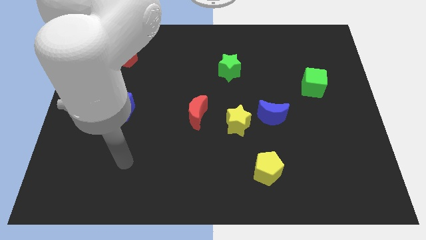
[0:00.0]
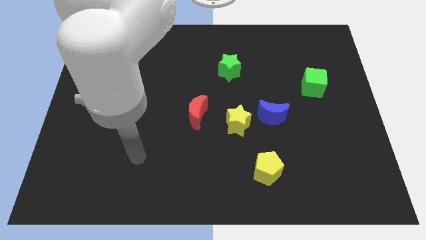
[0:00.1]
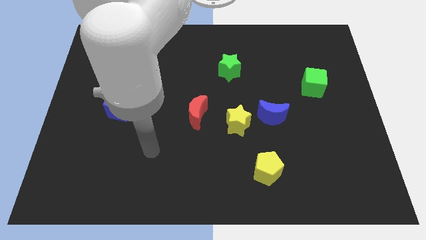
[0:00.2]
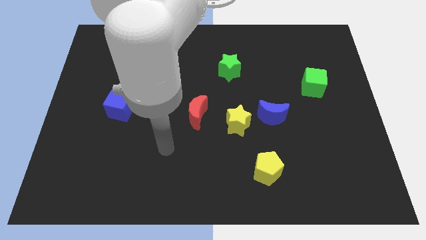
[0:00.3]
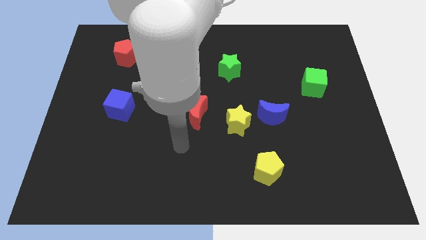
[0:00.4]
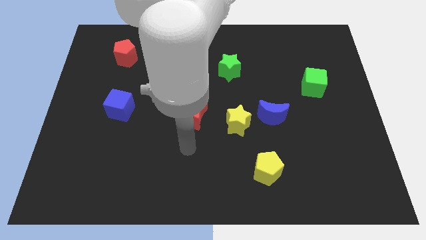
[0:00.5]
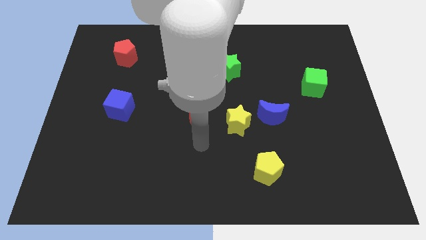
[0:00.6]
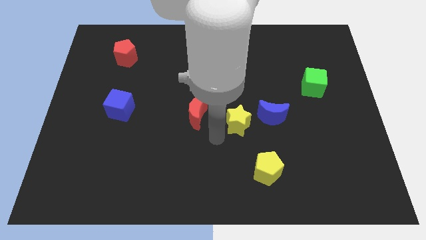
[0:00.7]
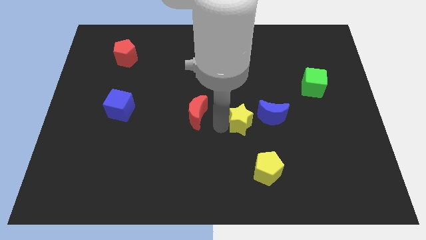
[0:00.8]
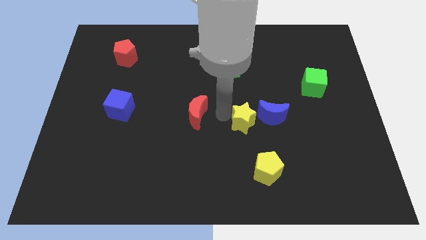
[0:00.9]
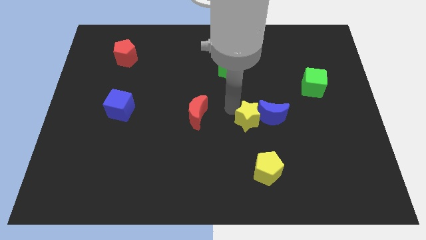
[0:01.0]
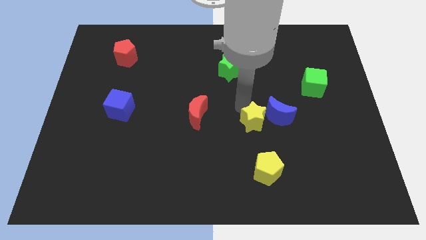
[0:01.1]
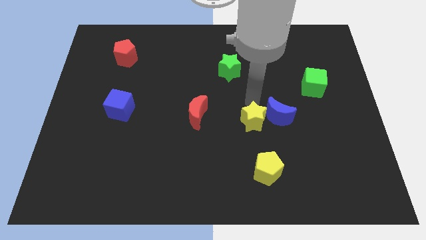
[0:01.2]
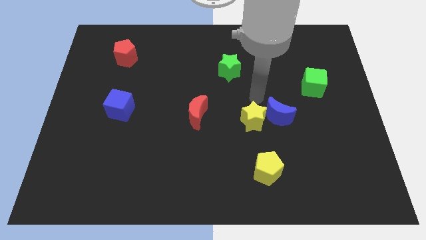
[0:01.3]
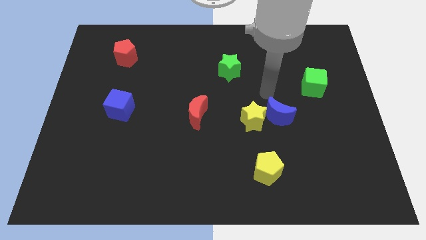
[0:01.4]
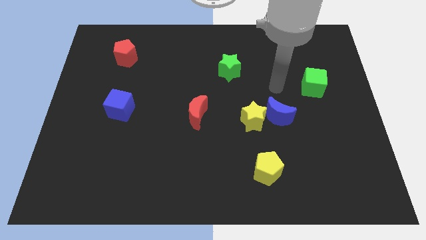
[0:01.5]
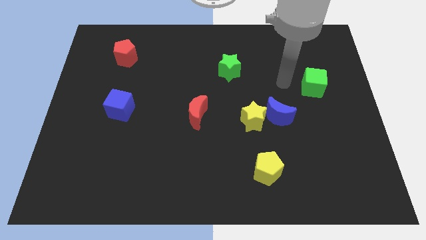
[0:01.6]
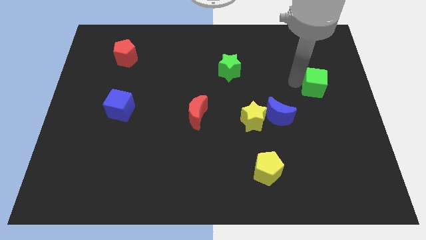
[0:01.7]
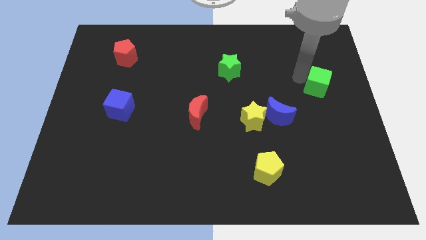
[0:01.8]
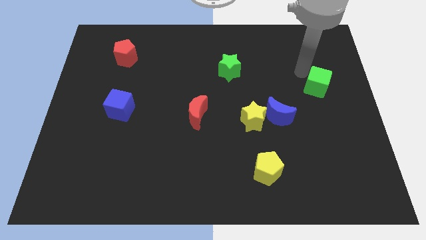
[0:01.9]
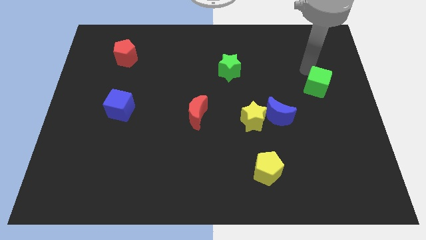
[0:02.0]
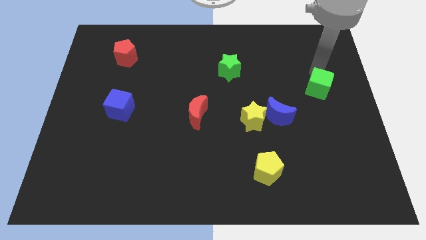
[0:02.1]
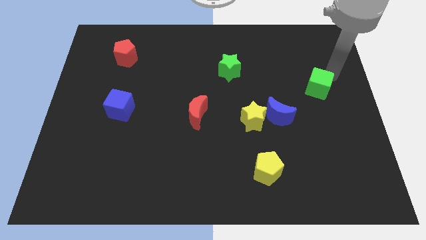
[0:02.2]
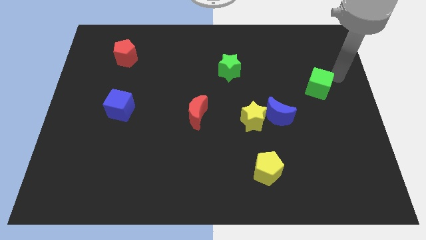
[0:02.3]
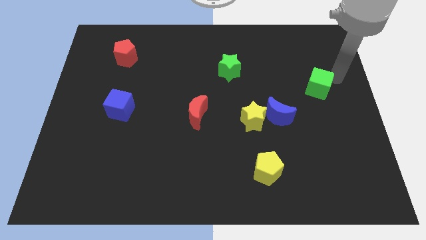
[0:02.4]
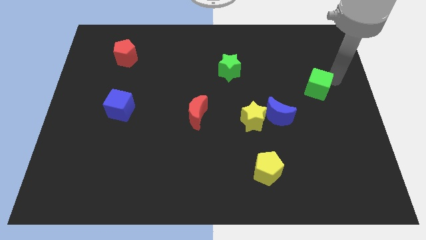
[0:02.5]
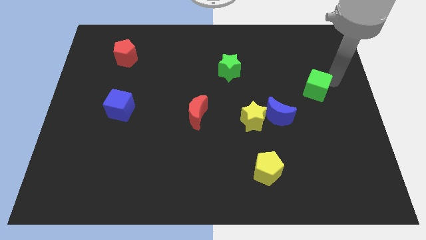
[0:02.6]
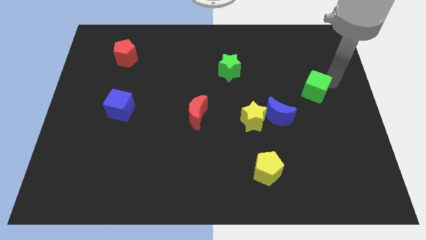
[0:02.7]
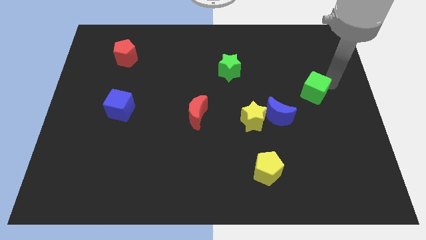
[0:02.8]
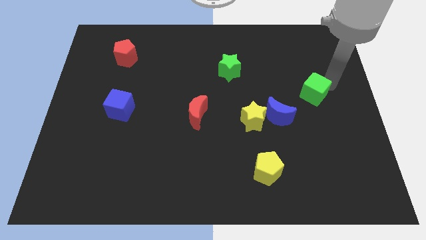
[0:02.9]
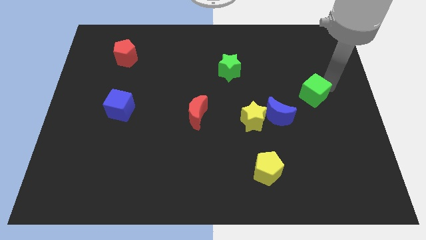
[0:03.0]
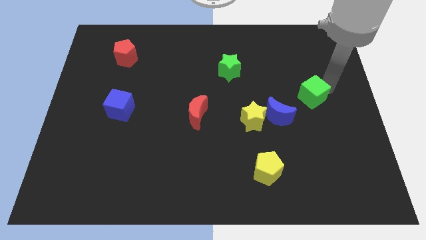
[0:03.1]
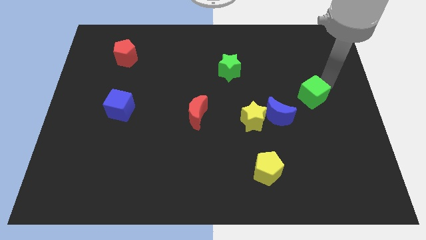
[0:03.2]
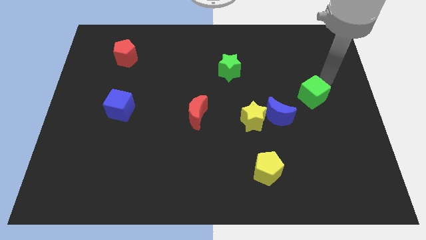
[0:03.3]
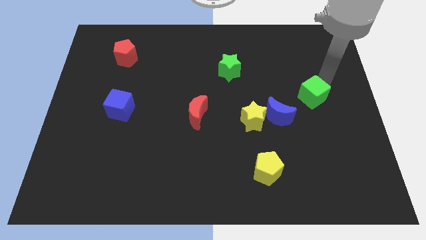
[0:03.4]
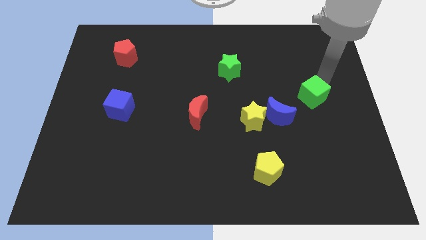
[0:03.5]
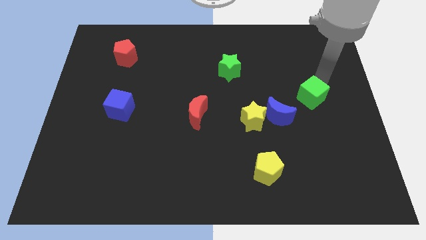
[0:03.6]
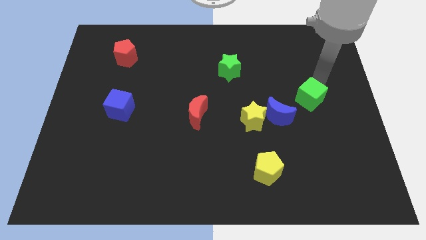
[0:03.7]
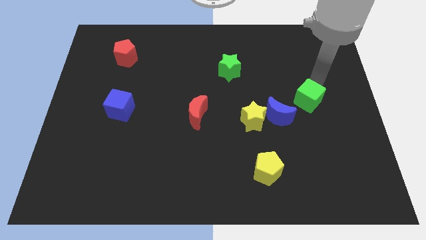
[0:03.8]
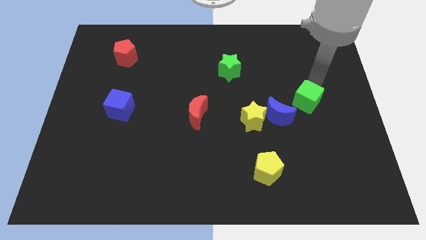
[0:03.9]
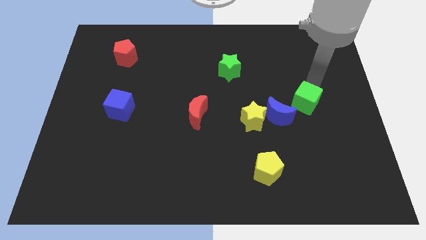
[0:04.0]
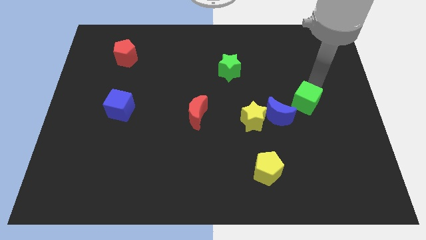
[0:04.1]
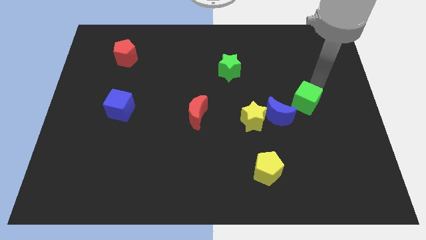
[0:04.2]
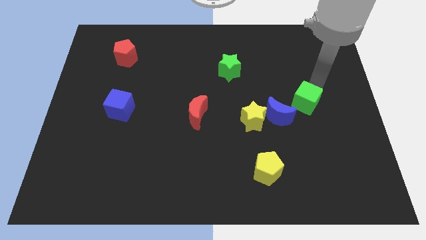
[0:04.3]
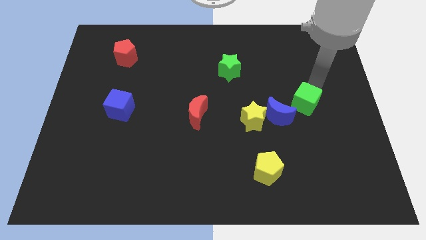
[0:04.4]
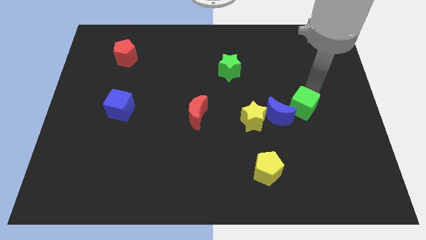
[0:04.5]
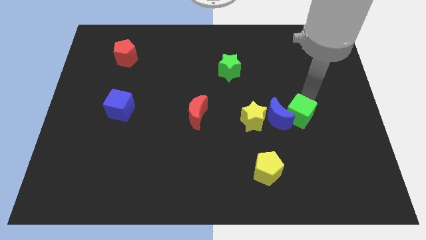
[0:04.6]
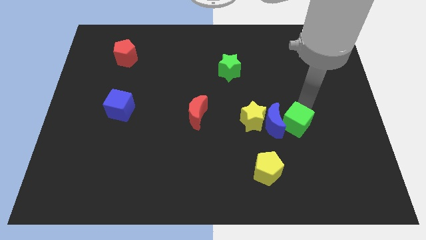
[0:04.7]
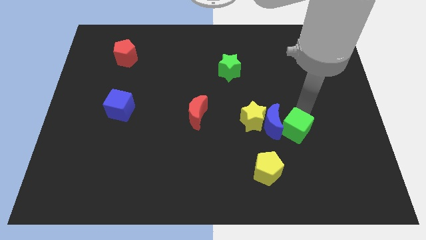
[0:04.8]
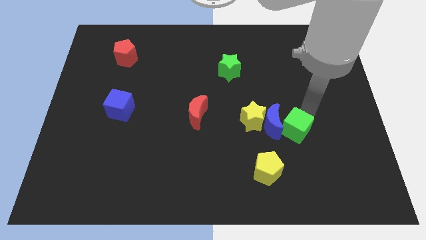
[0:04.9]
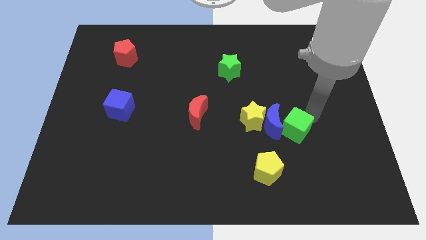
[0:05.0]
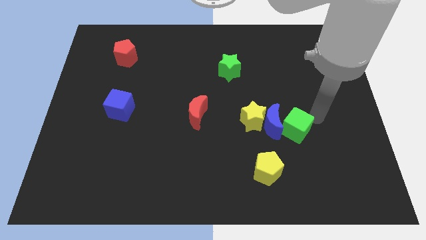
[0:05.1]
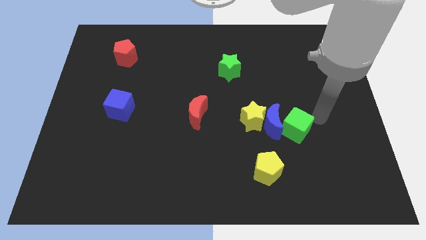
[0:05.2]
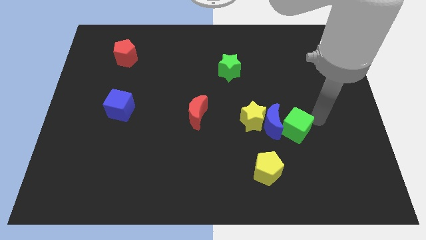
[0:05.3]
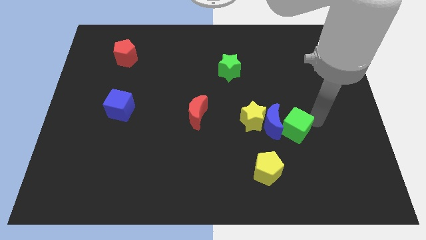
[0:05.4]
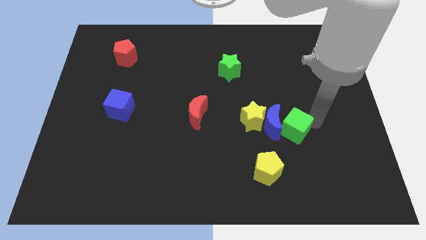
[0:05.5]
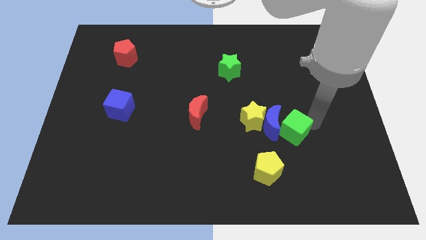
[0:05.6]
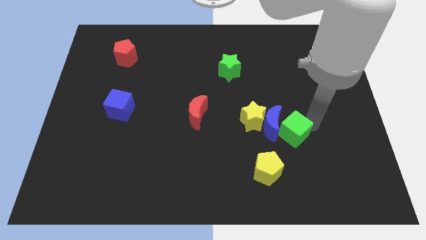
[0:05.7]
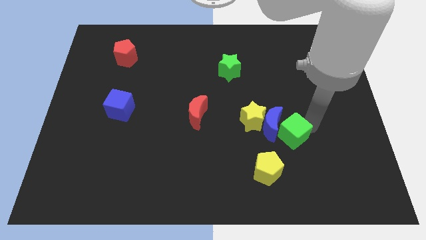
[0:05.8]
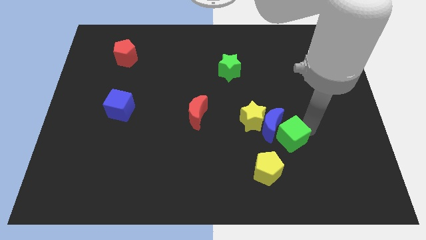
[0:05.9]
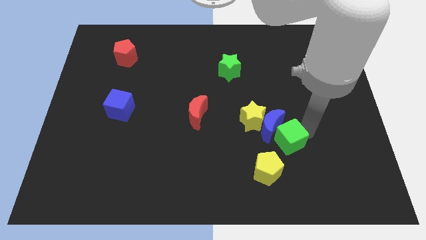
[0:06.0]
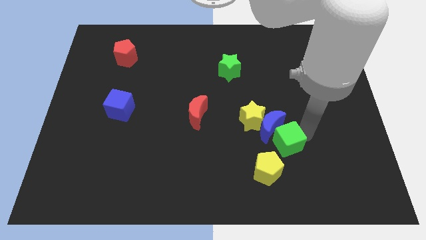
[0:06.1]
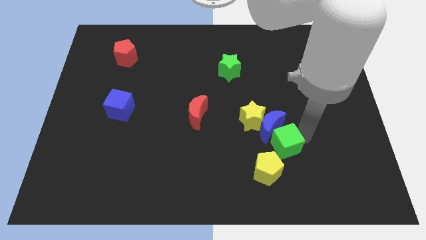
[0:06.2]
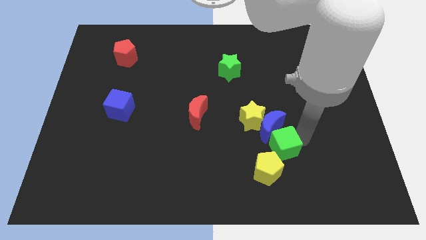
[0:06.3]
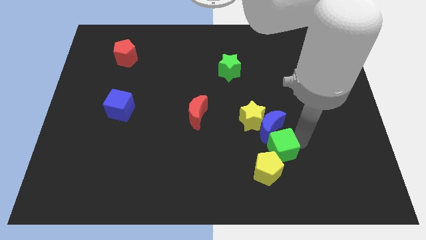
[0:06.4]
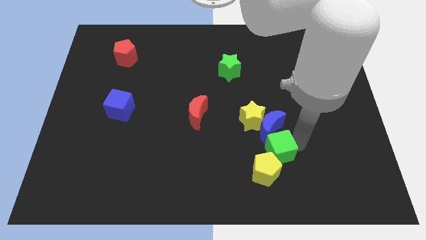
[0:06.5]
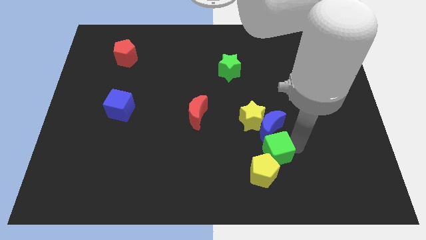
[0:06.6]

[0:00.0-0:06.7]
slide the green cube diagonally downwards and to the left

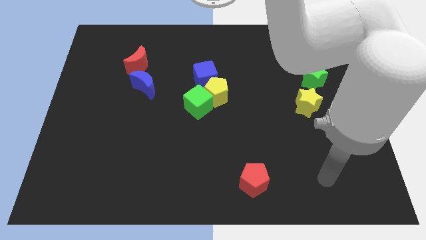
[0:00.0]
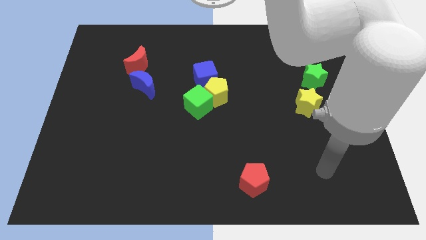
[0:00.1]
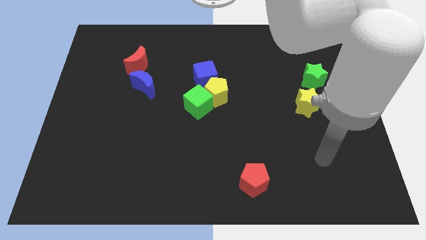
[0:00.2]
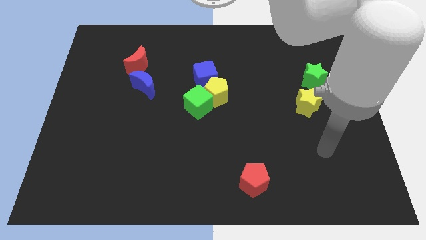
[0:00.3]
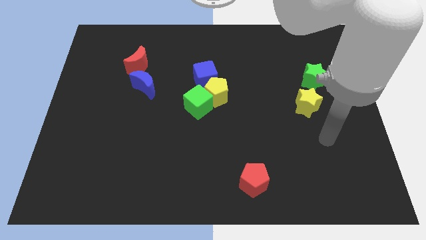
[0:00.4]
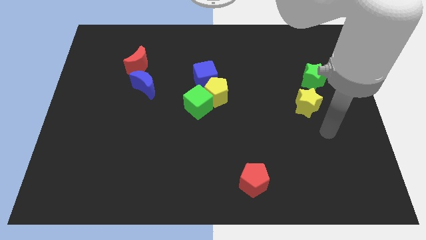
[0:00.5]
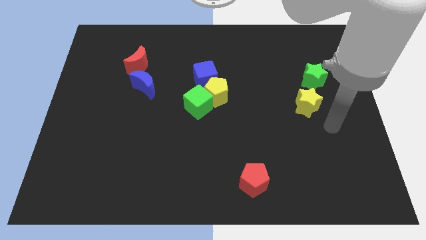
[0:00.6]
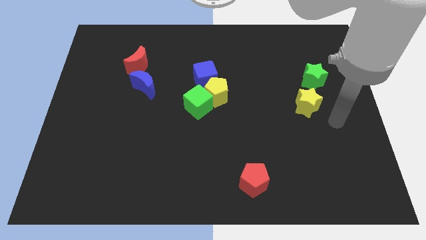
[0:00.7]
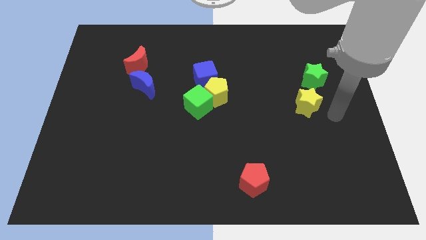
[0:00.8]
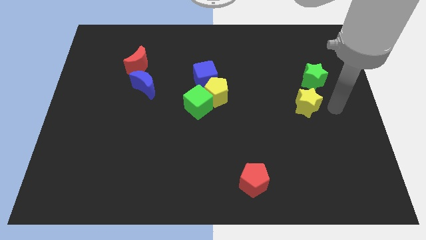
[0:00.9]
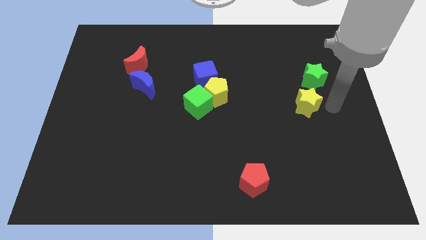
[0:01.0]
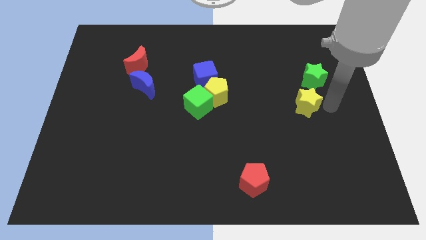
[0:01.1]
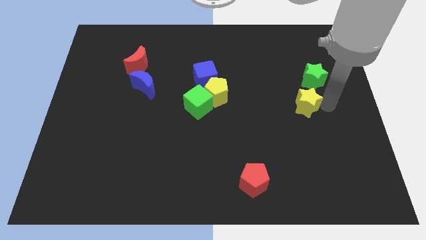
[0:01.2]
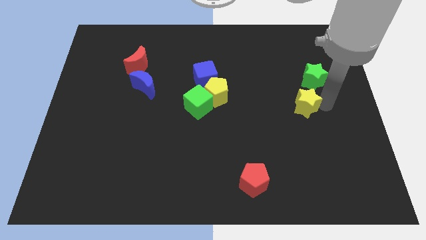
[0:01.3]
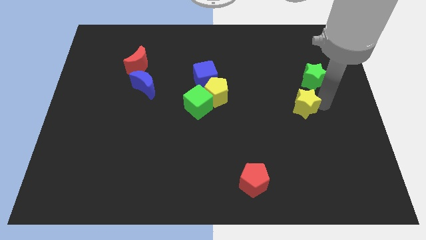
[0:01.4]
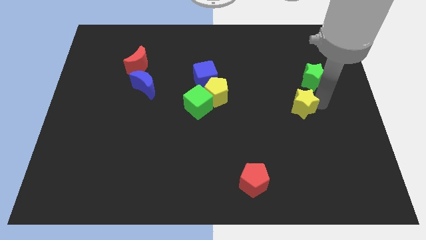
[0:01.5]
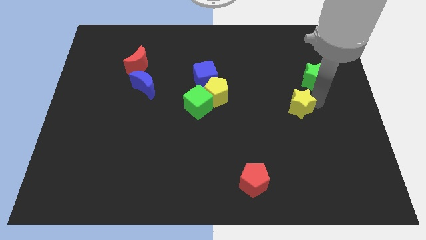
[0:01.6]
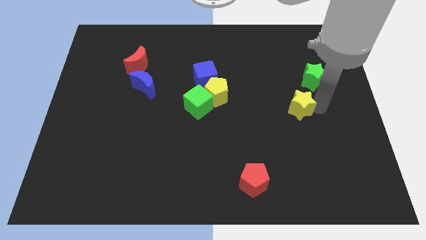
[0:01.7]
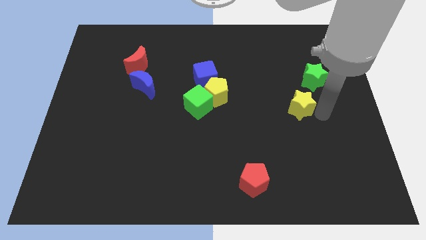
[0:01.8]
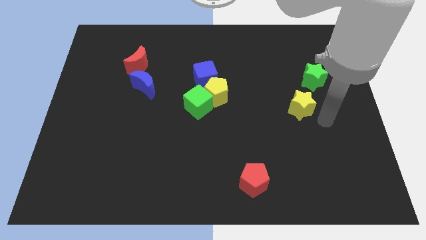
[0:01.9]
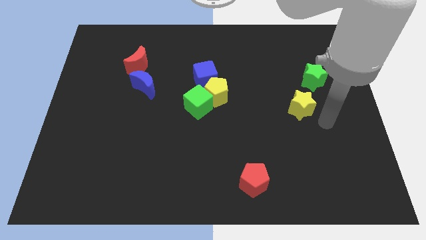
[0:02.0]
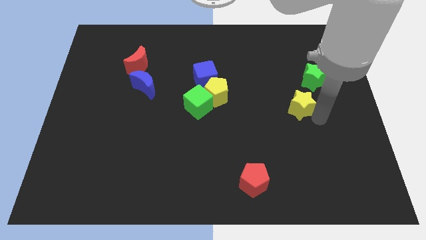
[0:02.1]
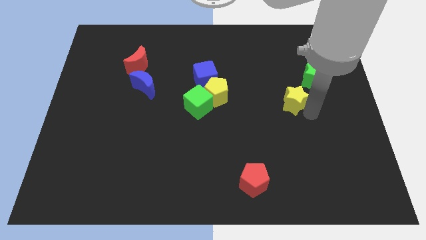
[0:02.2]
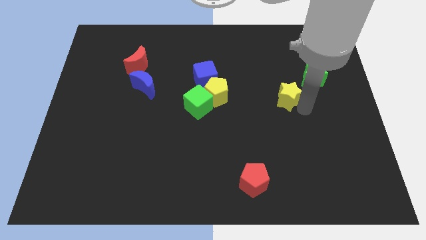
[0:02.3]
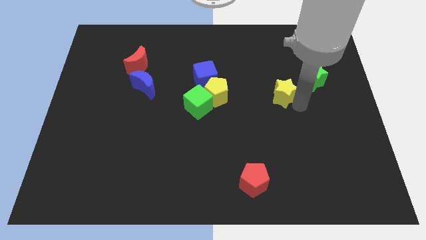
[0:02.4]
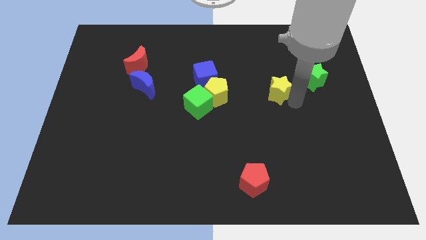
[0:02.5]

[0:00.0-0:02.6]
push the yellow star a little bit up and left
